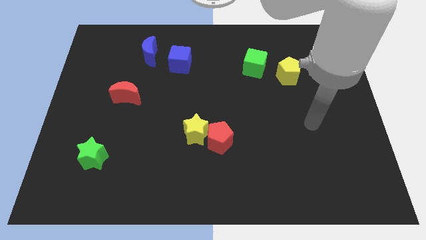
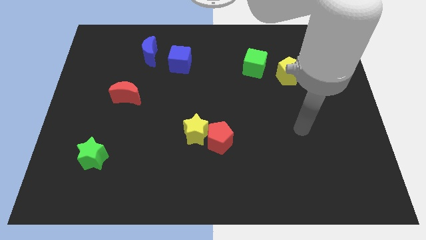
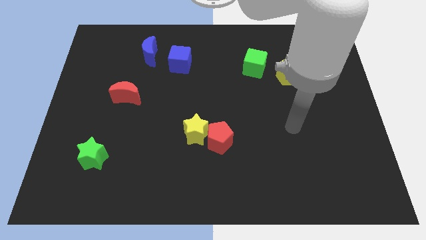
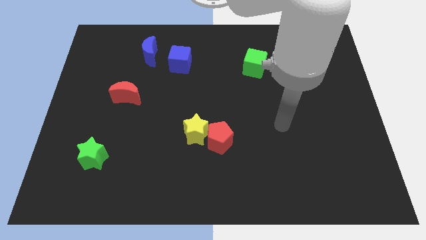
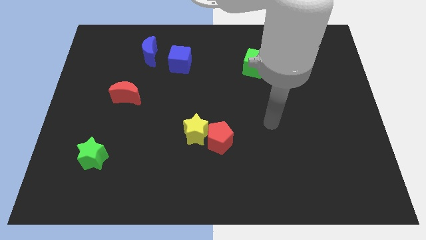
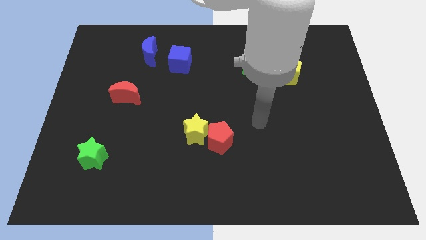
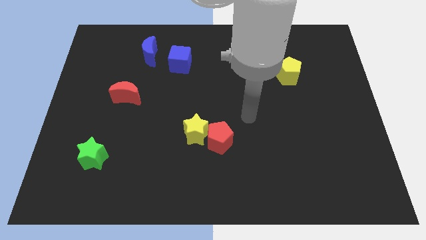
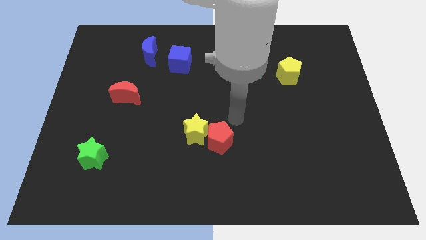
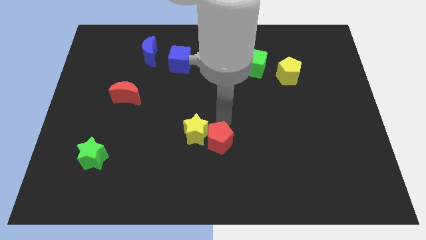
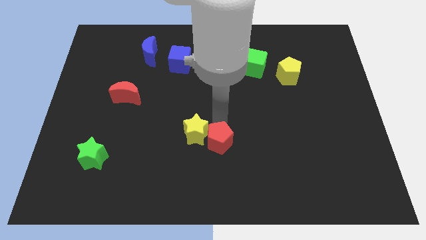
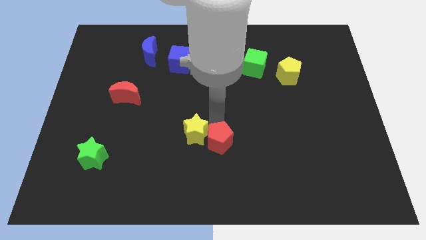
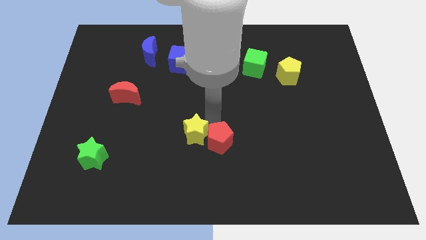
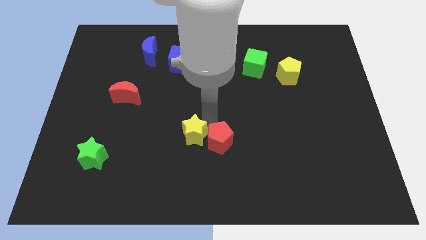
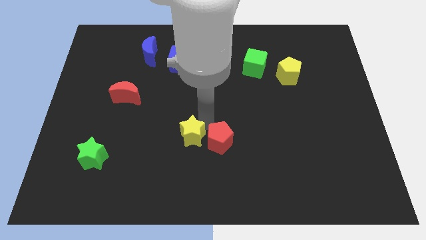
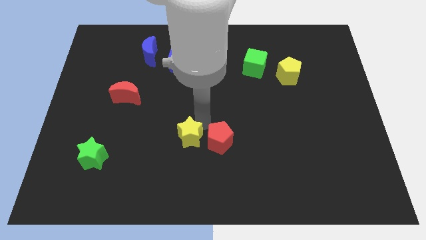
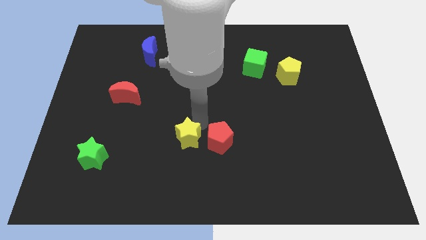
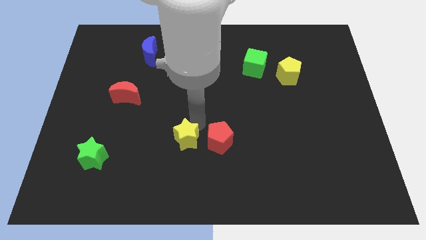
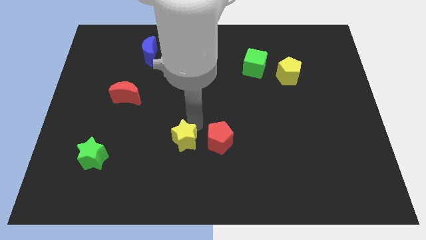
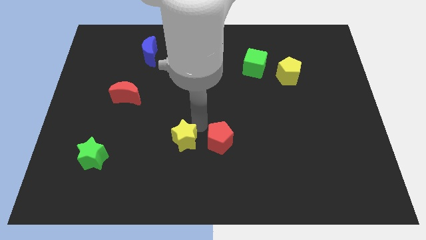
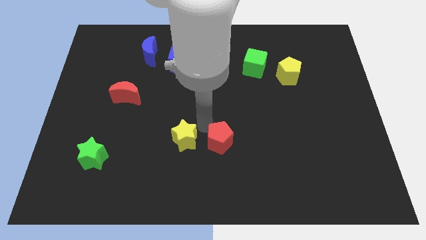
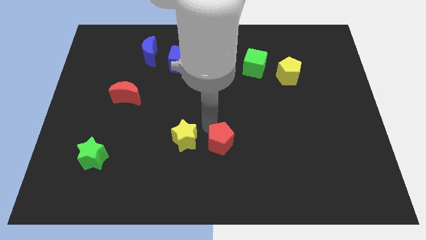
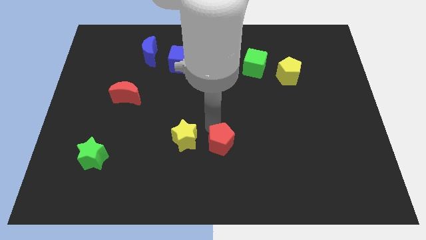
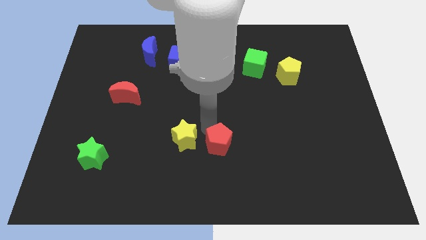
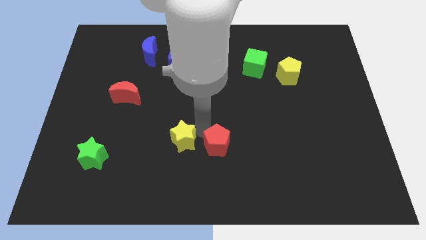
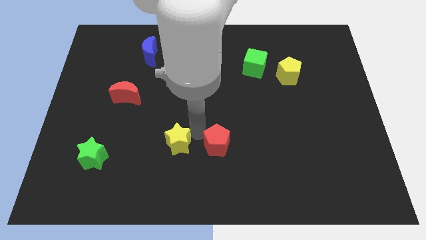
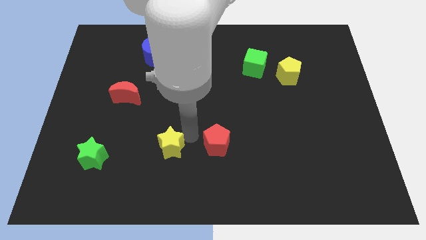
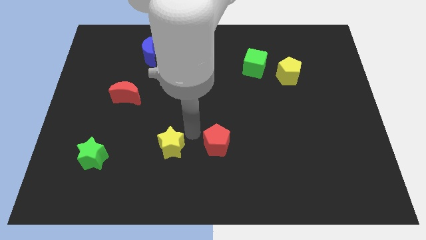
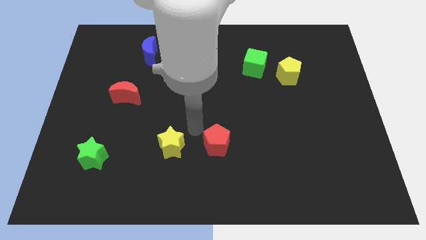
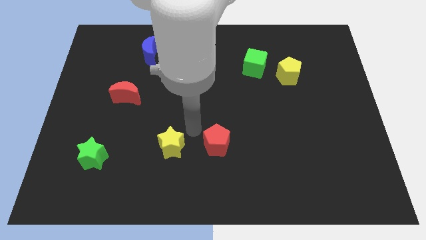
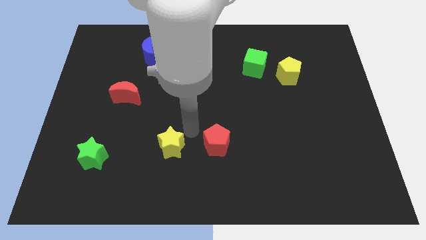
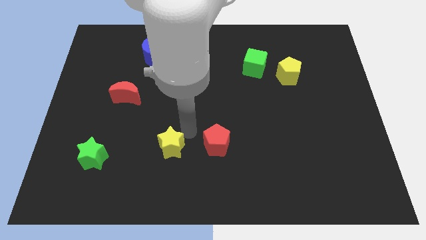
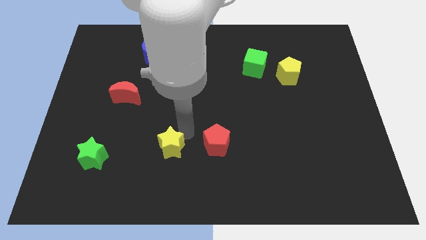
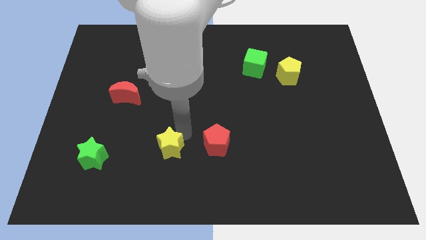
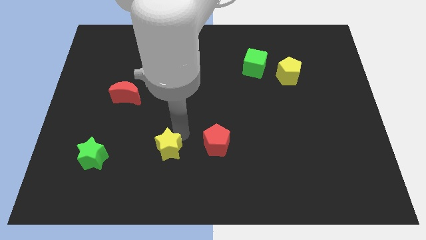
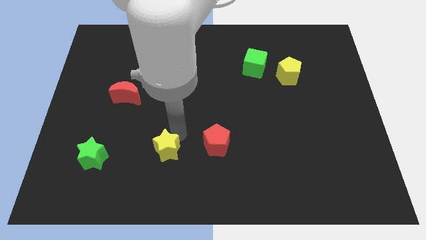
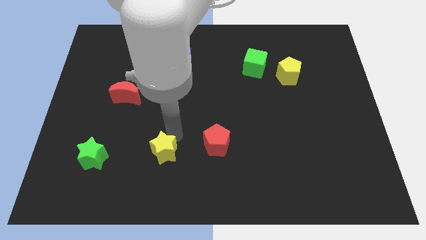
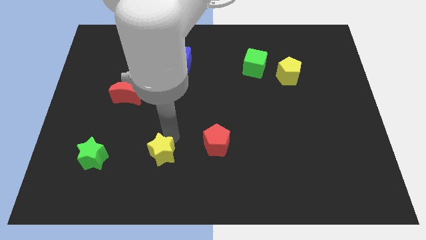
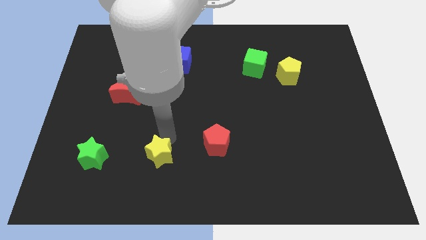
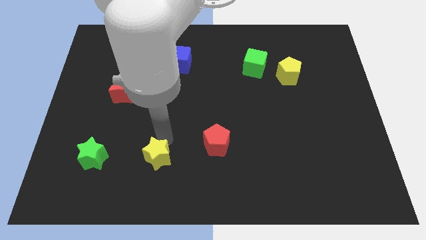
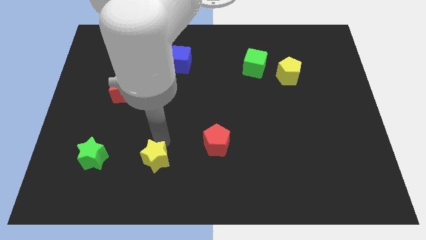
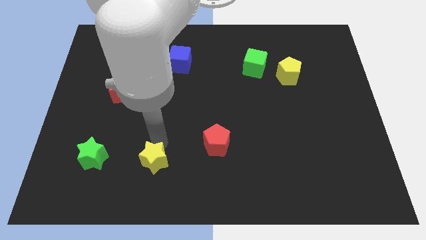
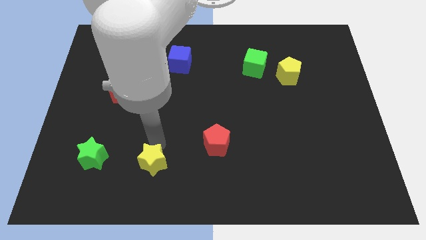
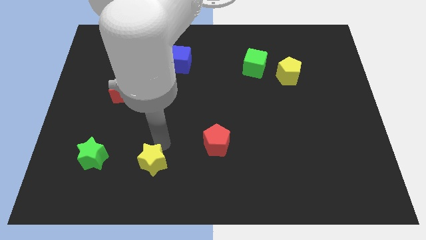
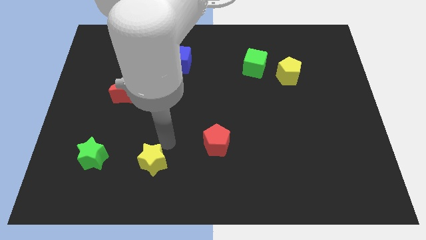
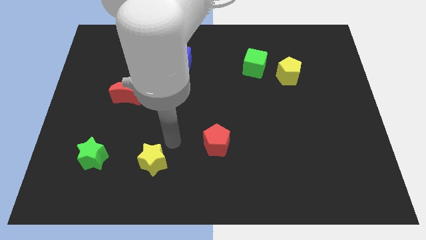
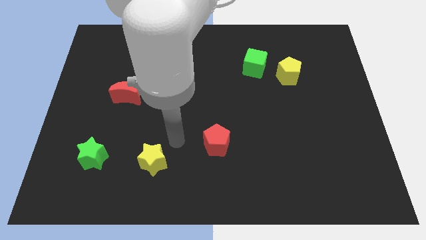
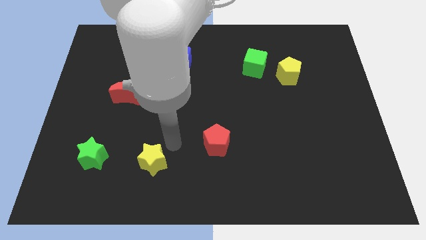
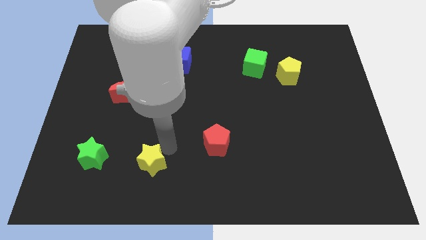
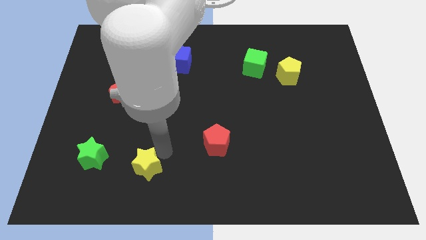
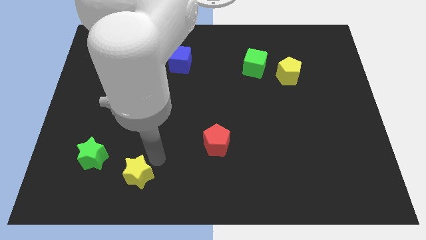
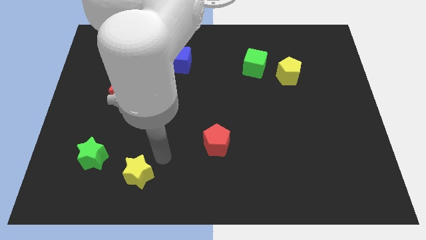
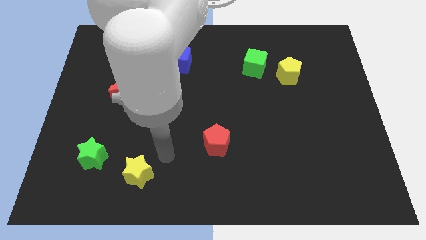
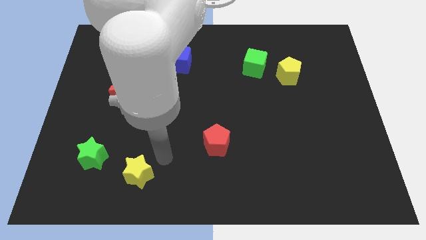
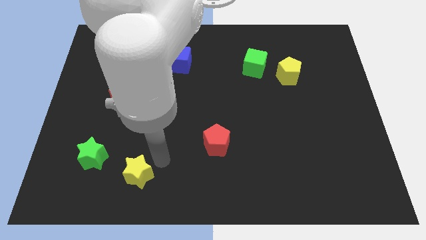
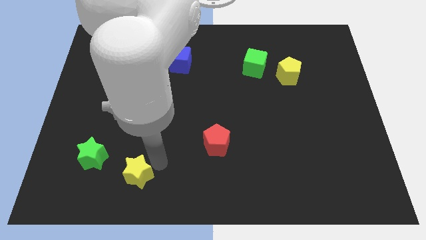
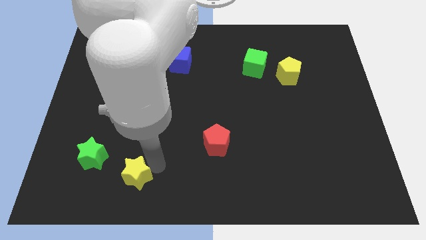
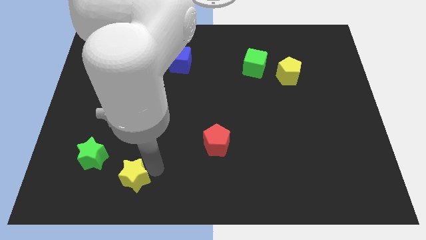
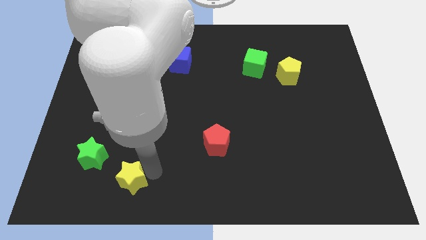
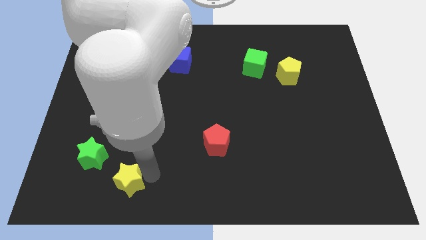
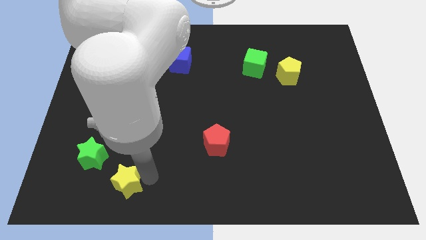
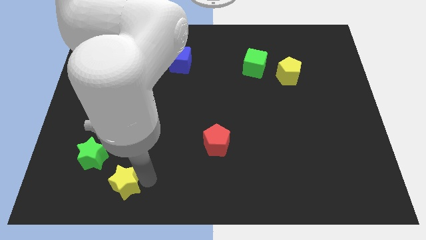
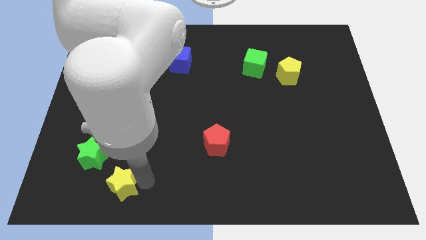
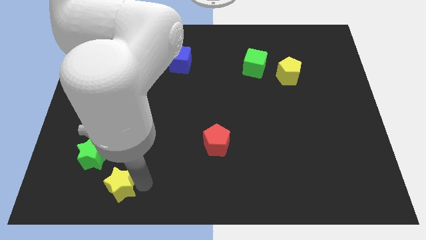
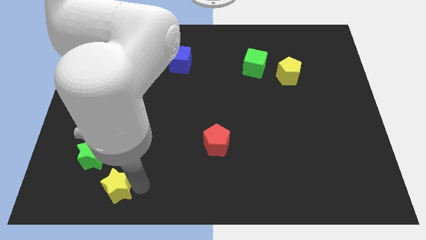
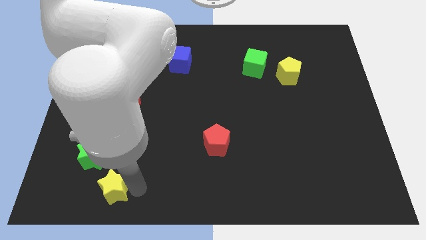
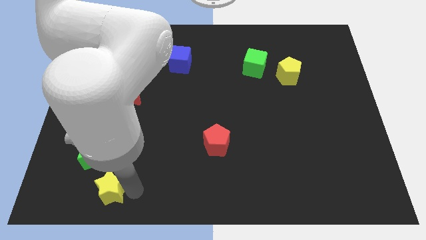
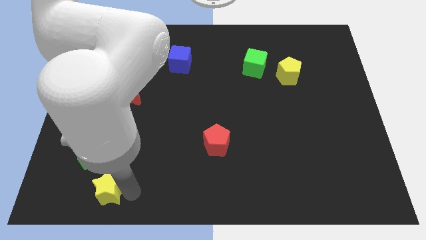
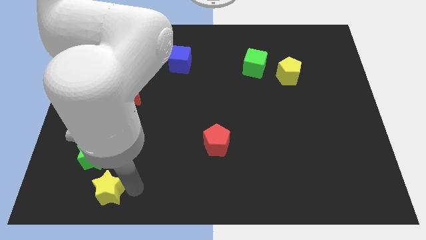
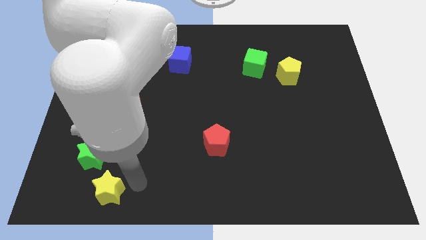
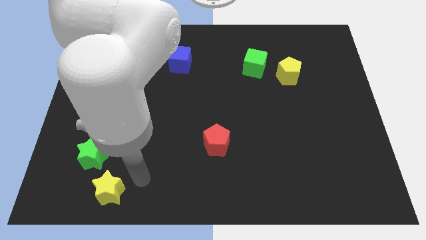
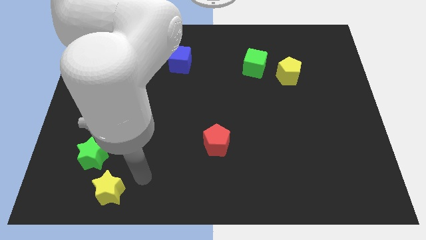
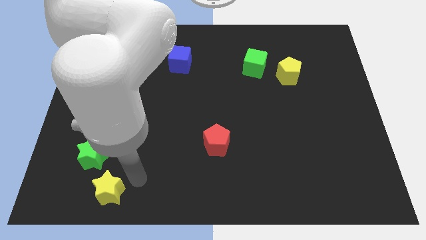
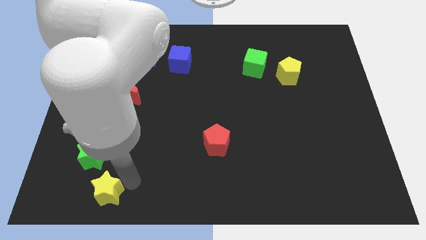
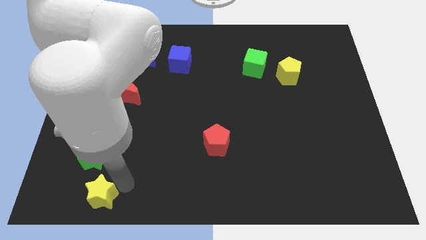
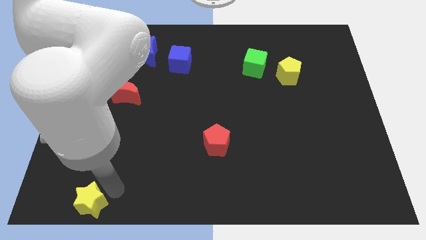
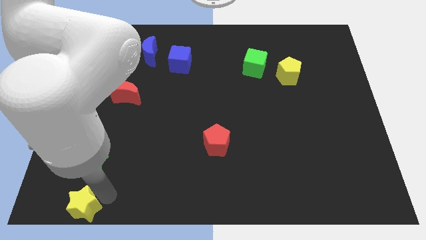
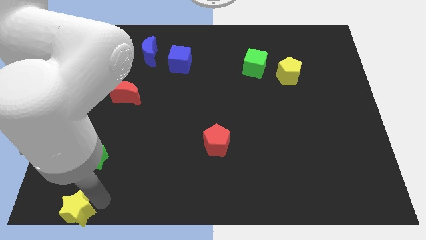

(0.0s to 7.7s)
move the yellow star to the bottom left
